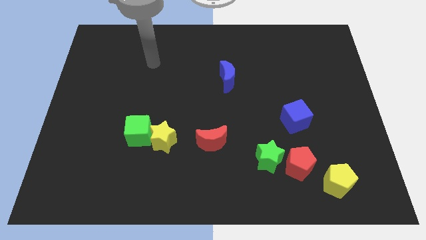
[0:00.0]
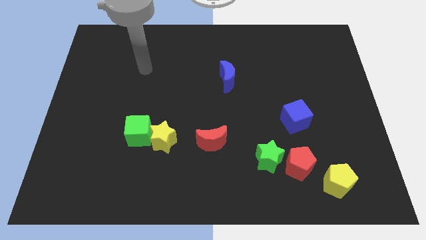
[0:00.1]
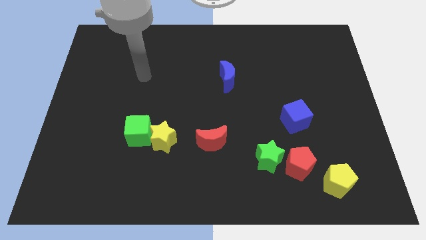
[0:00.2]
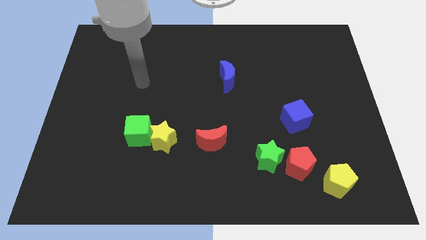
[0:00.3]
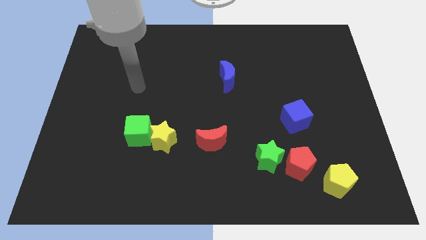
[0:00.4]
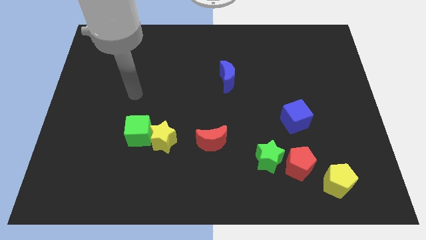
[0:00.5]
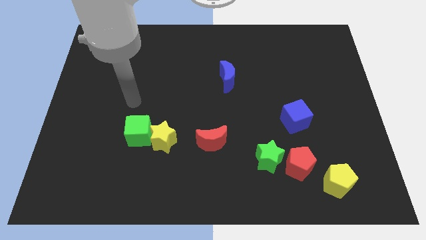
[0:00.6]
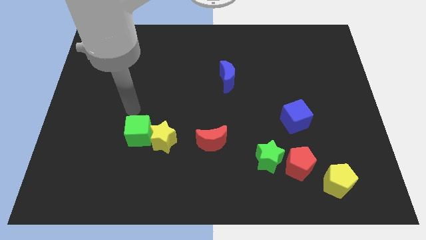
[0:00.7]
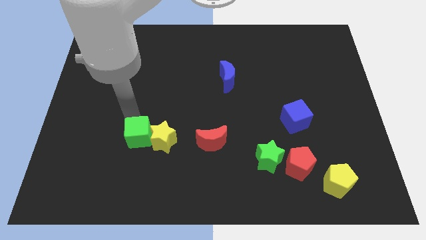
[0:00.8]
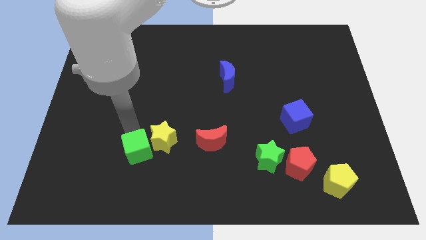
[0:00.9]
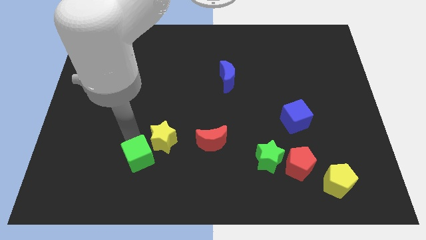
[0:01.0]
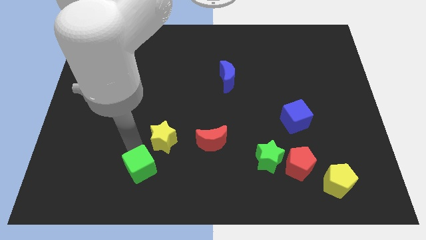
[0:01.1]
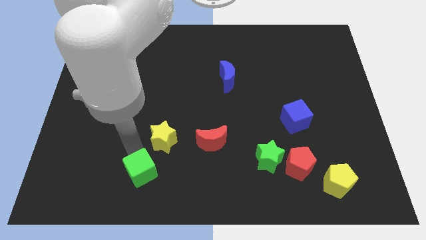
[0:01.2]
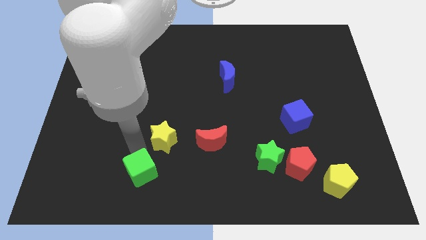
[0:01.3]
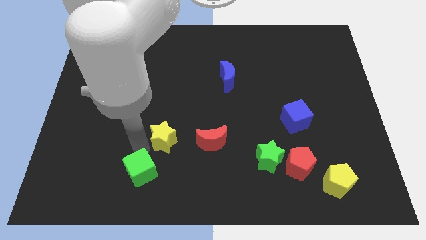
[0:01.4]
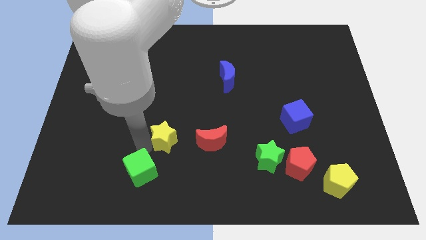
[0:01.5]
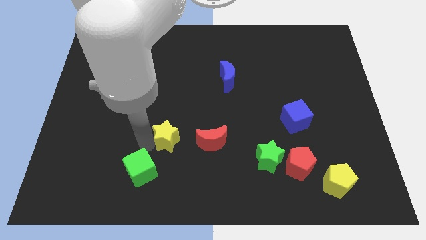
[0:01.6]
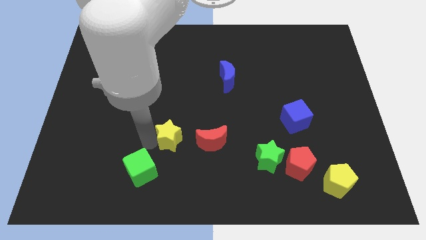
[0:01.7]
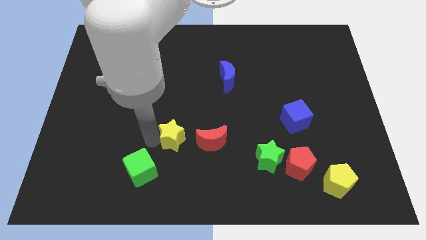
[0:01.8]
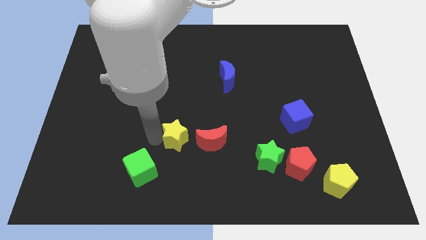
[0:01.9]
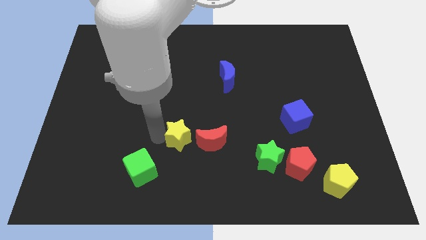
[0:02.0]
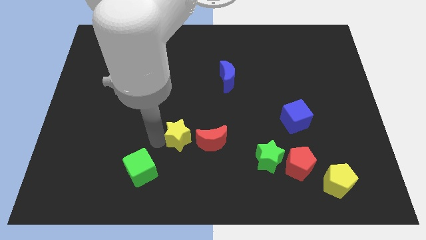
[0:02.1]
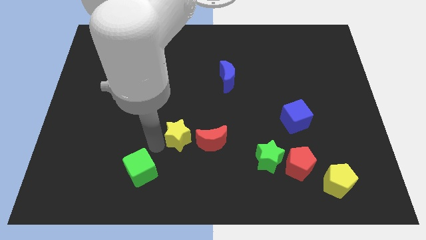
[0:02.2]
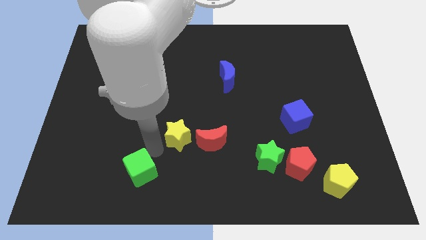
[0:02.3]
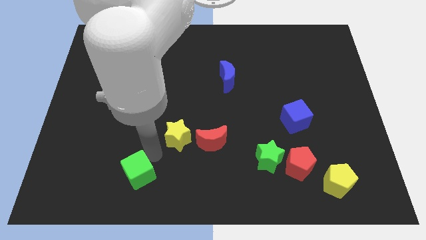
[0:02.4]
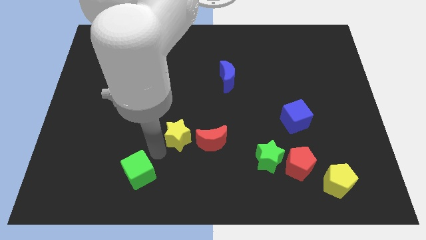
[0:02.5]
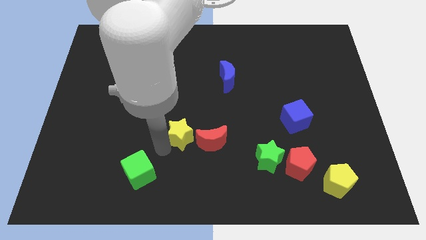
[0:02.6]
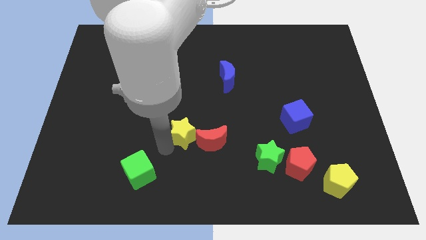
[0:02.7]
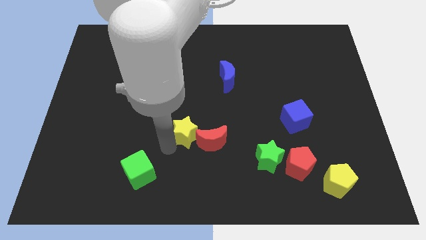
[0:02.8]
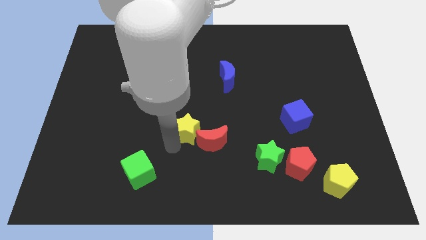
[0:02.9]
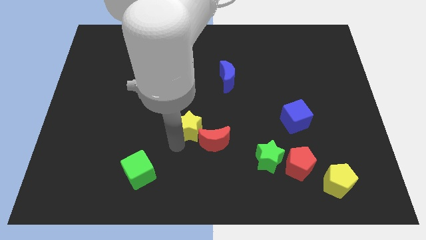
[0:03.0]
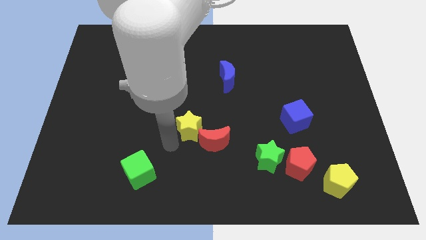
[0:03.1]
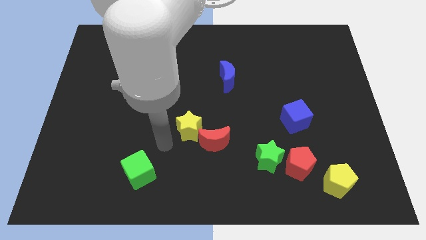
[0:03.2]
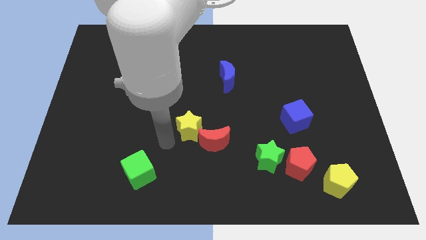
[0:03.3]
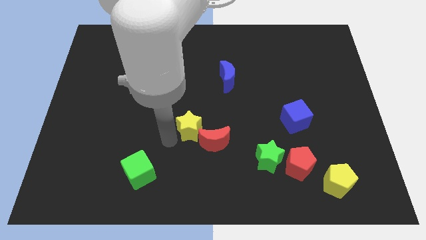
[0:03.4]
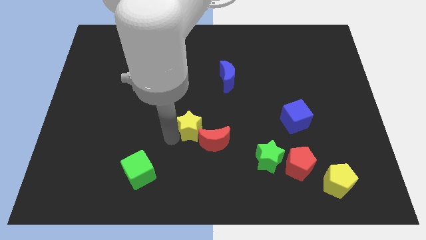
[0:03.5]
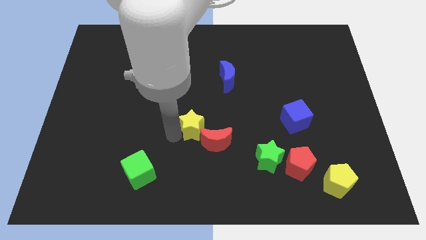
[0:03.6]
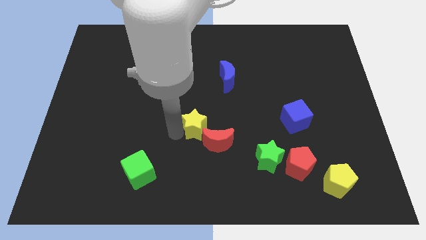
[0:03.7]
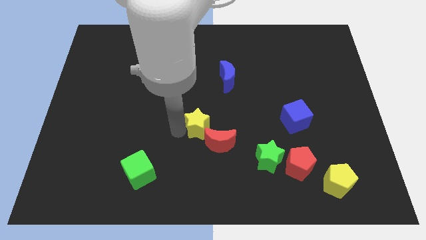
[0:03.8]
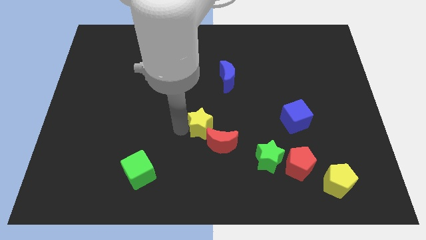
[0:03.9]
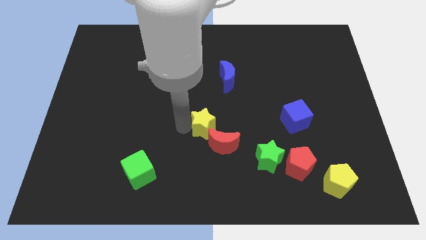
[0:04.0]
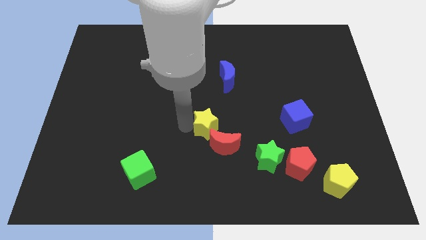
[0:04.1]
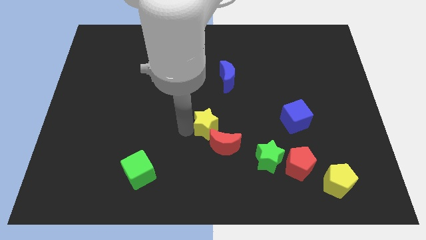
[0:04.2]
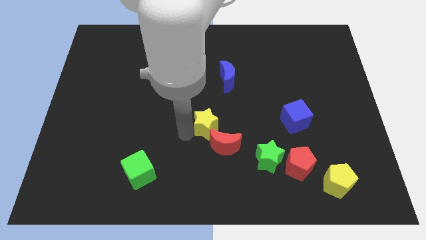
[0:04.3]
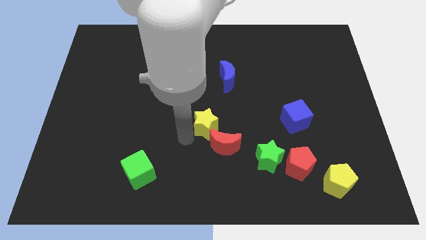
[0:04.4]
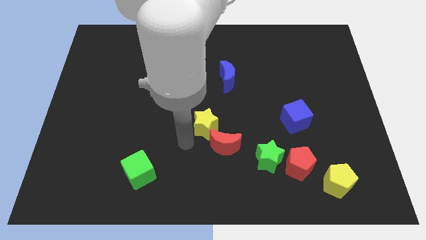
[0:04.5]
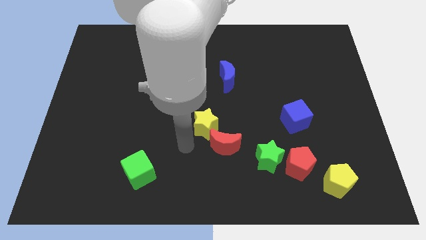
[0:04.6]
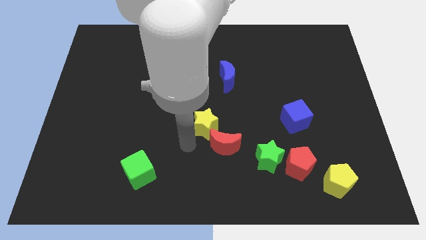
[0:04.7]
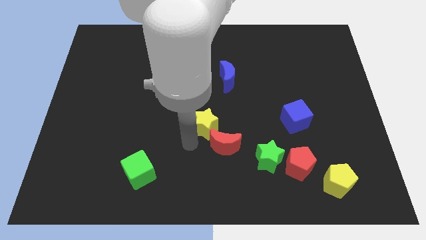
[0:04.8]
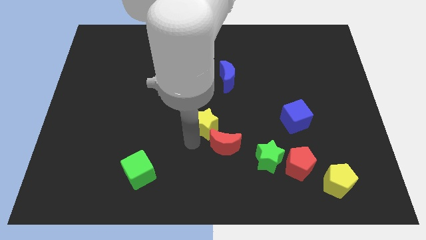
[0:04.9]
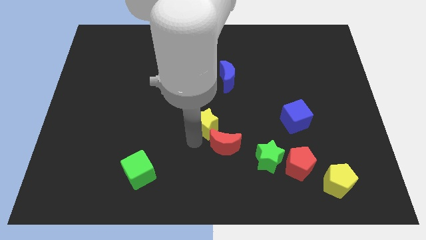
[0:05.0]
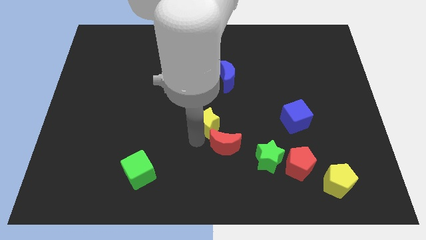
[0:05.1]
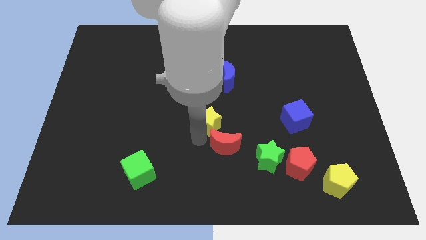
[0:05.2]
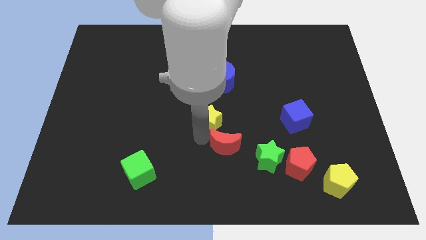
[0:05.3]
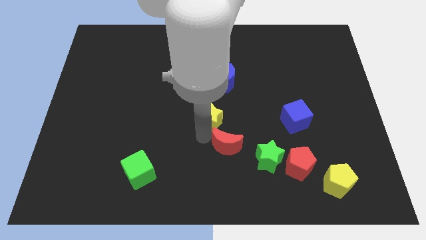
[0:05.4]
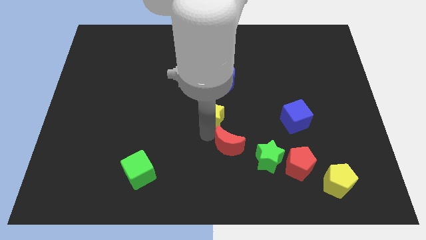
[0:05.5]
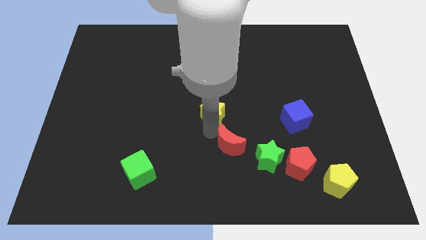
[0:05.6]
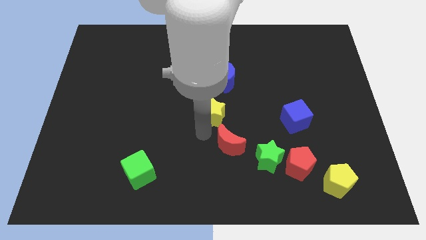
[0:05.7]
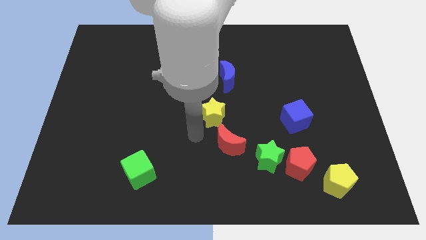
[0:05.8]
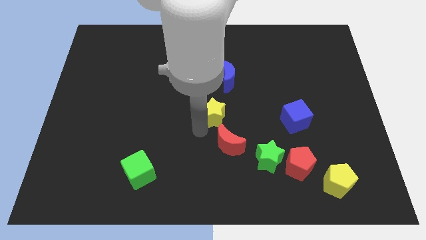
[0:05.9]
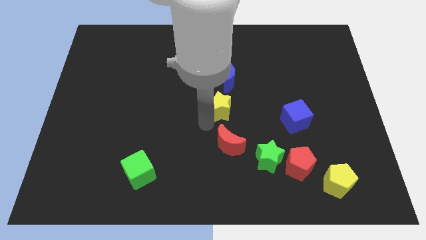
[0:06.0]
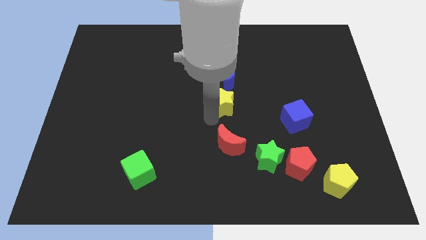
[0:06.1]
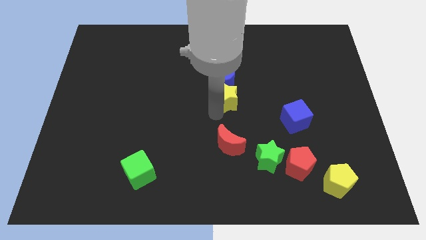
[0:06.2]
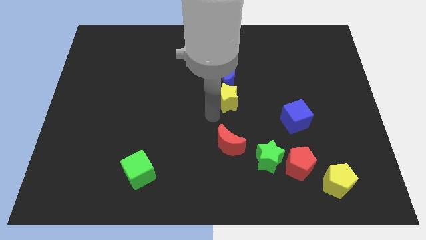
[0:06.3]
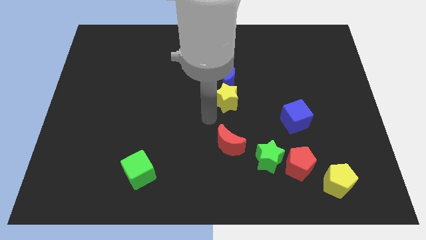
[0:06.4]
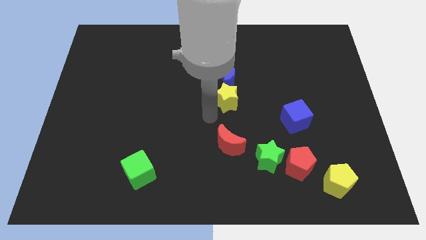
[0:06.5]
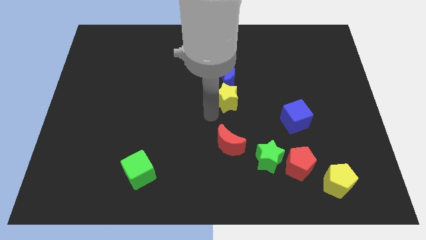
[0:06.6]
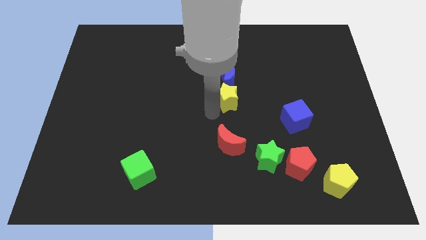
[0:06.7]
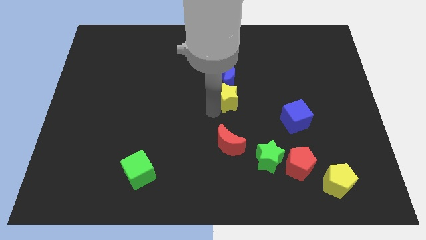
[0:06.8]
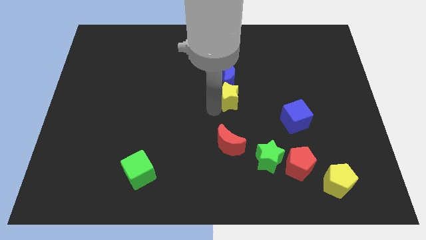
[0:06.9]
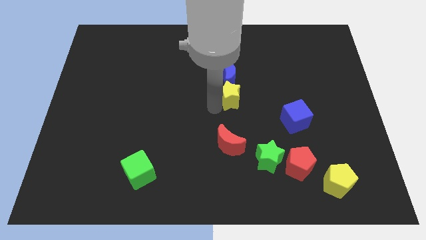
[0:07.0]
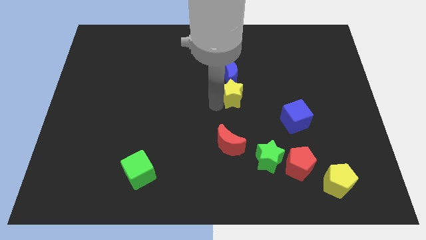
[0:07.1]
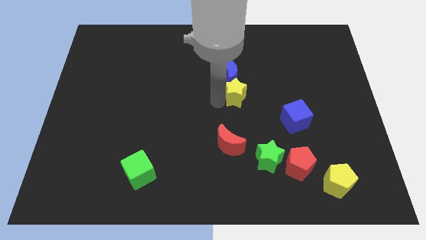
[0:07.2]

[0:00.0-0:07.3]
slide the yellow star upwards and right

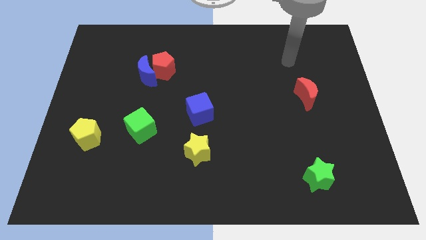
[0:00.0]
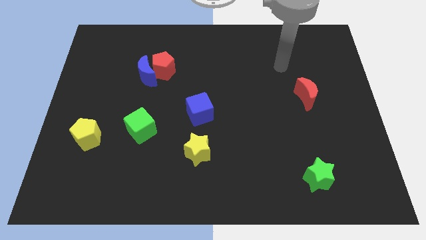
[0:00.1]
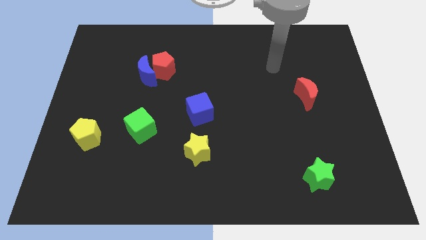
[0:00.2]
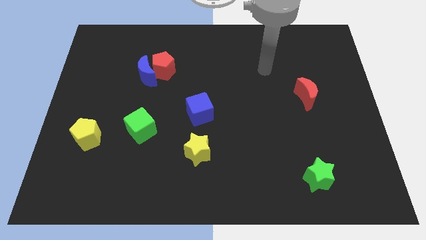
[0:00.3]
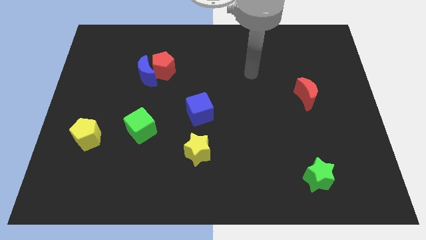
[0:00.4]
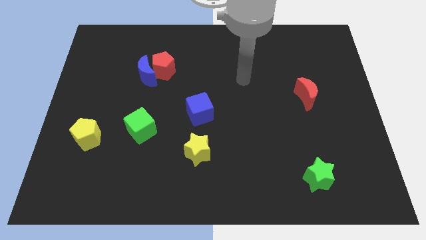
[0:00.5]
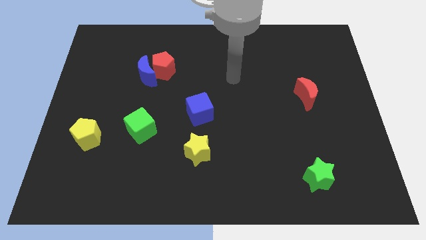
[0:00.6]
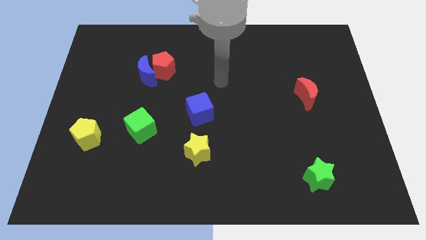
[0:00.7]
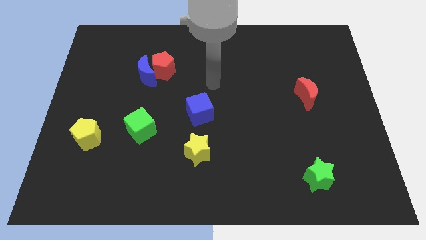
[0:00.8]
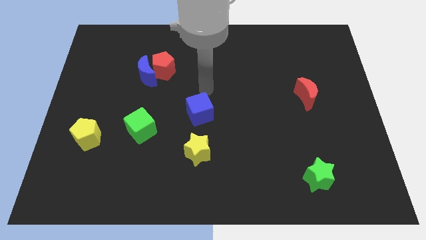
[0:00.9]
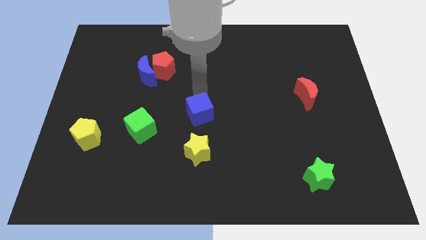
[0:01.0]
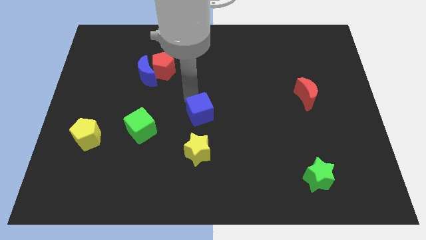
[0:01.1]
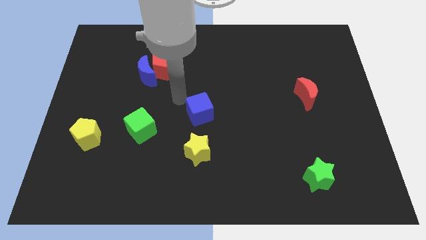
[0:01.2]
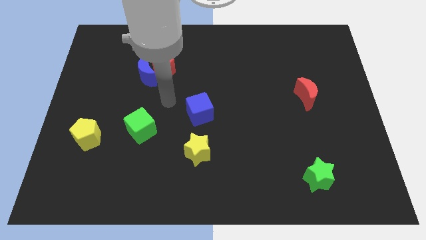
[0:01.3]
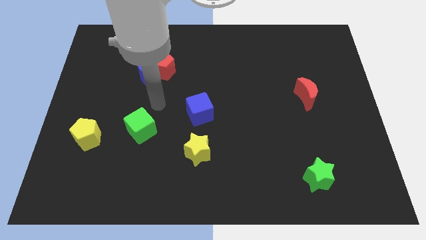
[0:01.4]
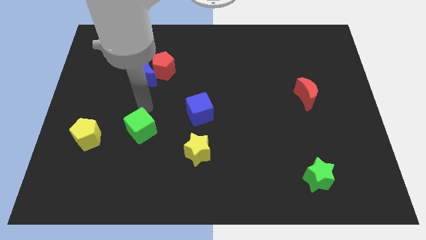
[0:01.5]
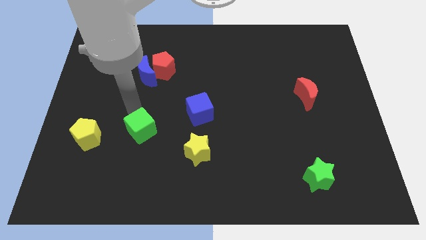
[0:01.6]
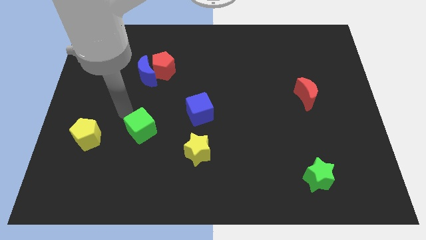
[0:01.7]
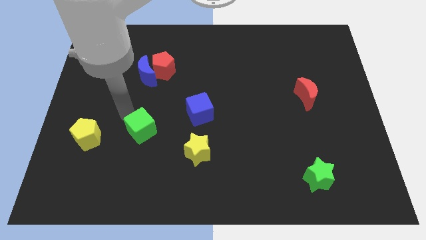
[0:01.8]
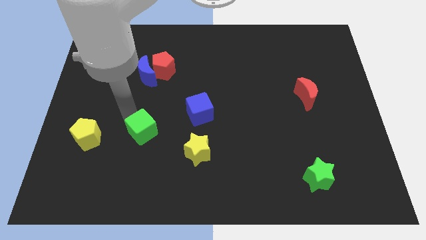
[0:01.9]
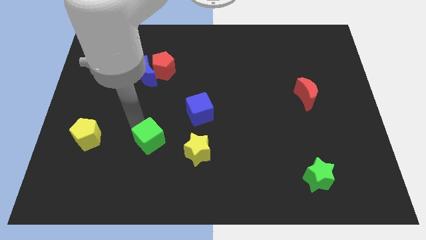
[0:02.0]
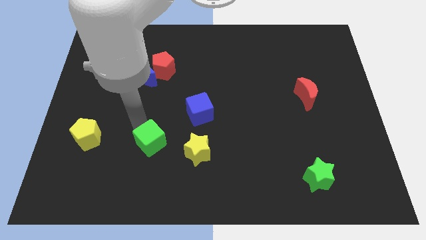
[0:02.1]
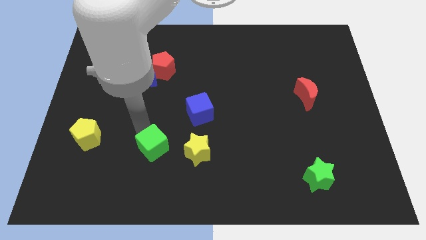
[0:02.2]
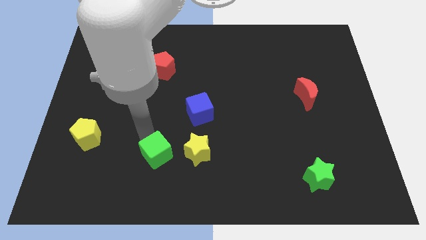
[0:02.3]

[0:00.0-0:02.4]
slide the green cube diagonally downwards and to the right slightly
